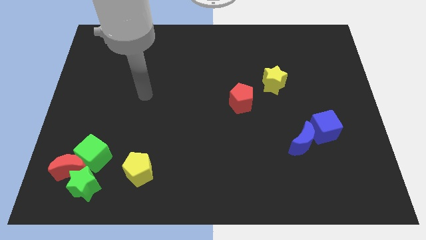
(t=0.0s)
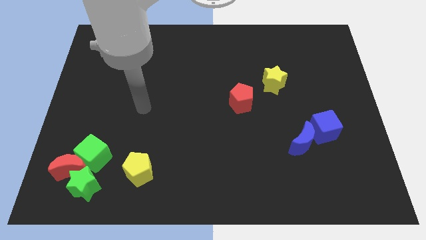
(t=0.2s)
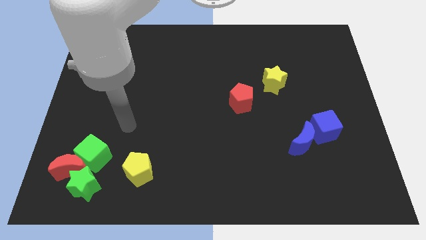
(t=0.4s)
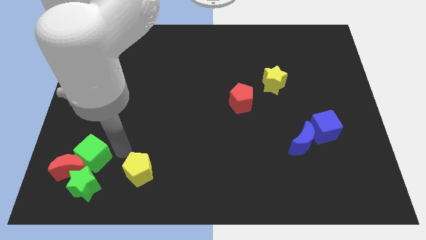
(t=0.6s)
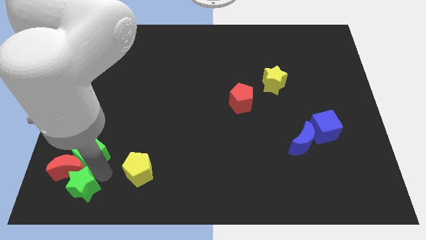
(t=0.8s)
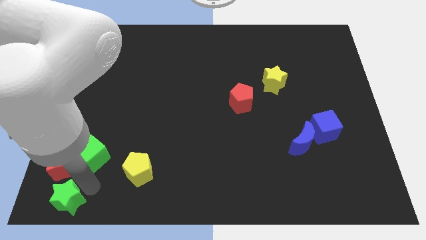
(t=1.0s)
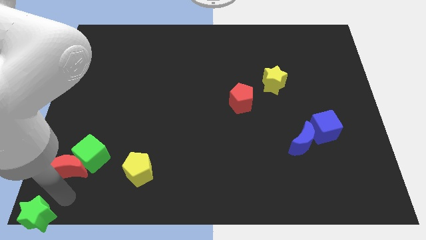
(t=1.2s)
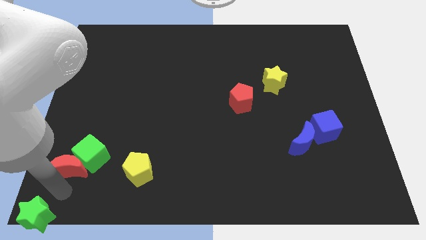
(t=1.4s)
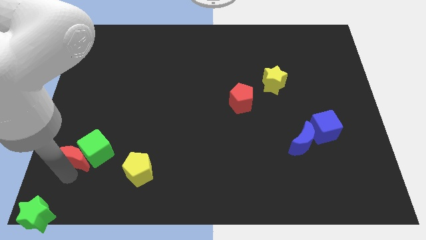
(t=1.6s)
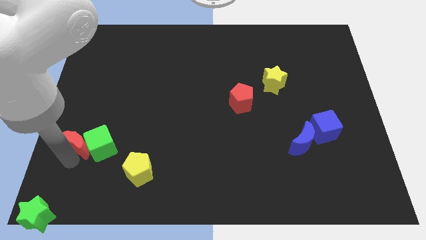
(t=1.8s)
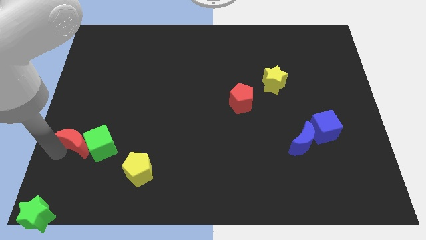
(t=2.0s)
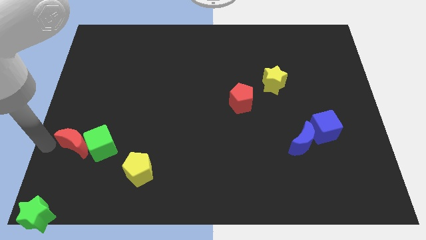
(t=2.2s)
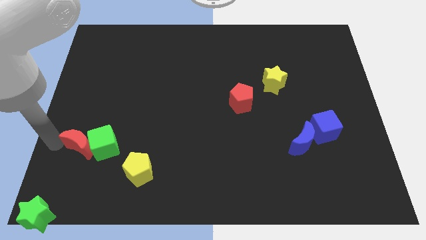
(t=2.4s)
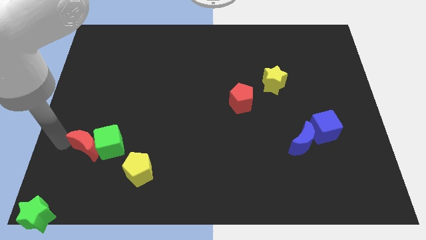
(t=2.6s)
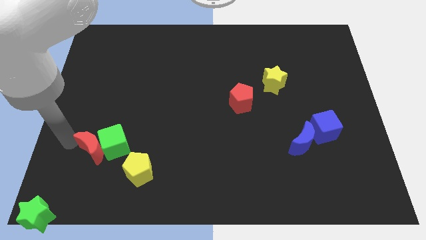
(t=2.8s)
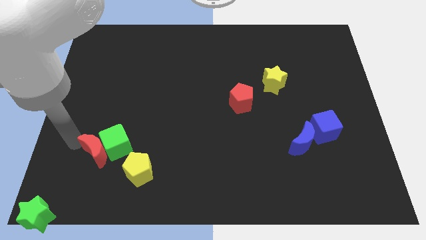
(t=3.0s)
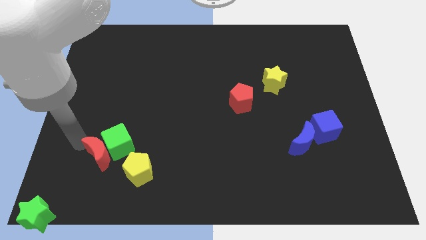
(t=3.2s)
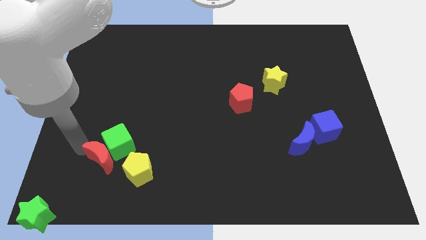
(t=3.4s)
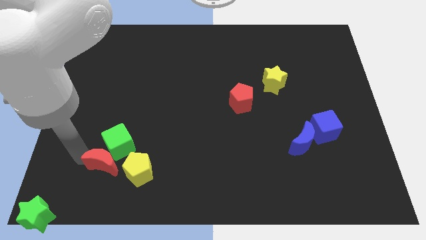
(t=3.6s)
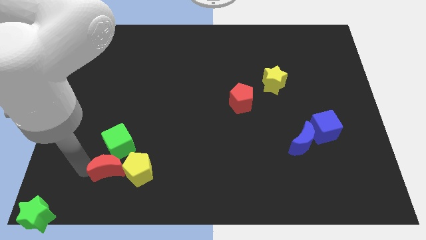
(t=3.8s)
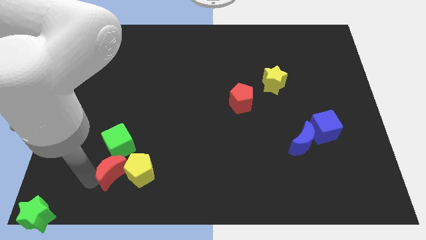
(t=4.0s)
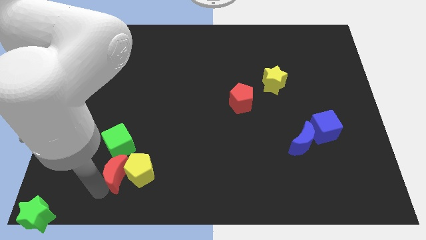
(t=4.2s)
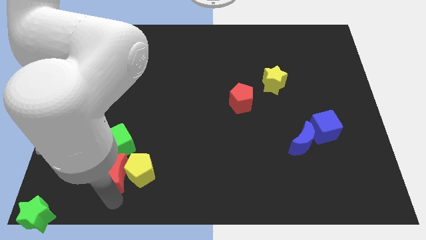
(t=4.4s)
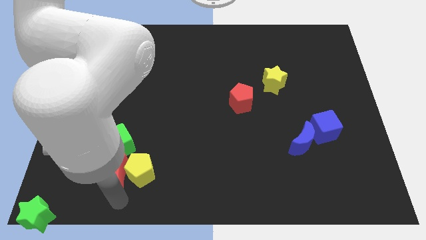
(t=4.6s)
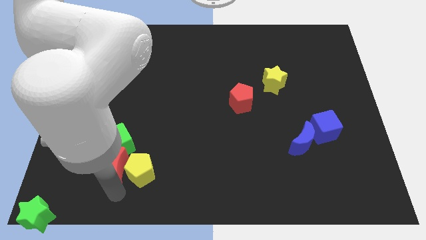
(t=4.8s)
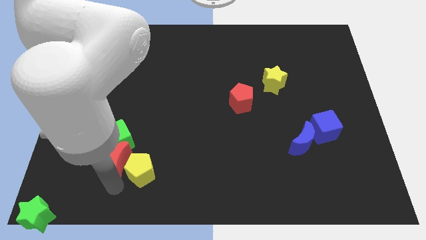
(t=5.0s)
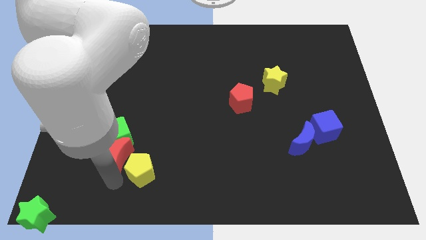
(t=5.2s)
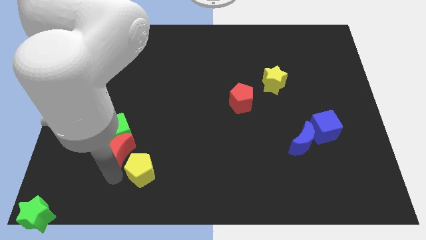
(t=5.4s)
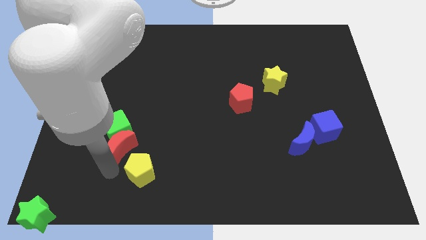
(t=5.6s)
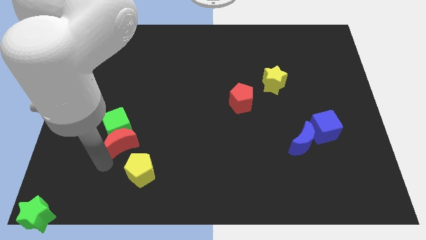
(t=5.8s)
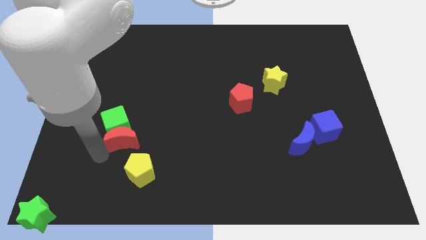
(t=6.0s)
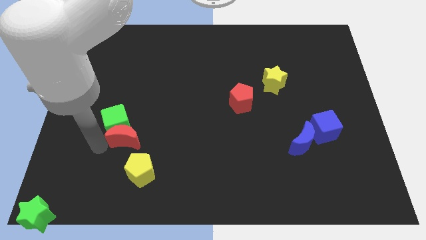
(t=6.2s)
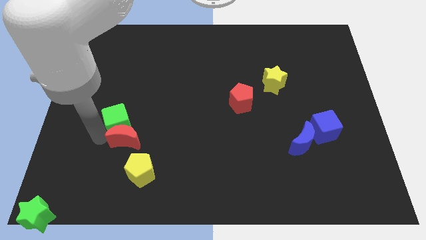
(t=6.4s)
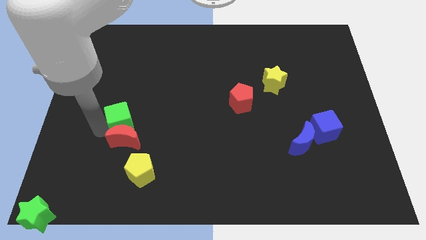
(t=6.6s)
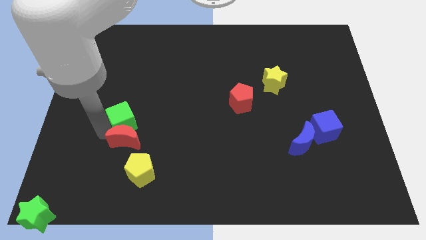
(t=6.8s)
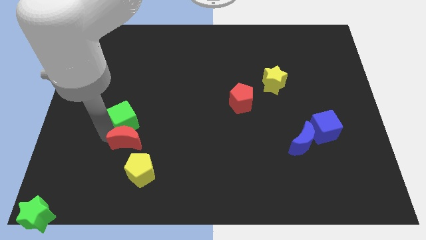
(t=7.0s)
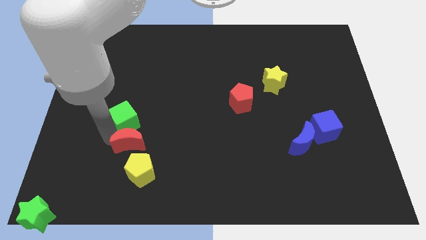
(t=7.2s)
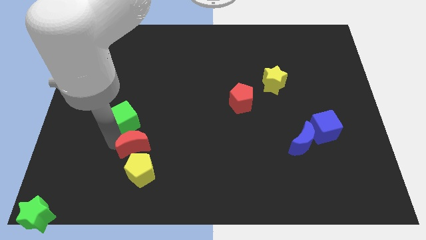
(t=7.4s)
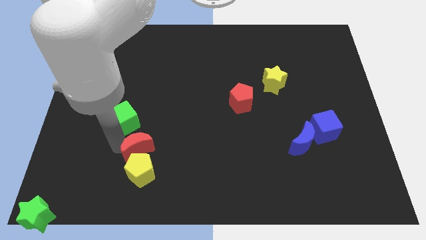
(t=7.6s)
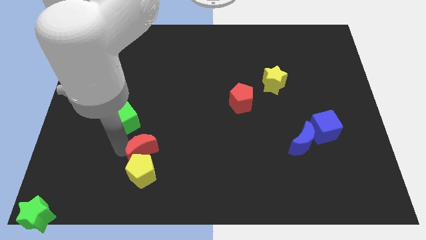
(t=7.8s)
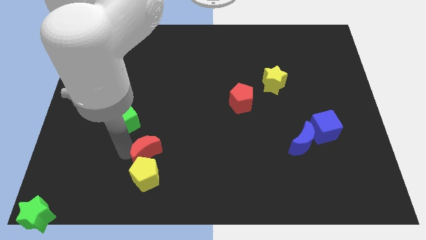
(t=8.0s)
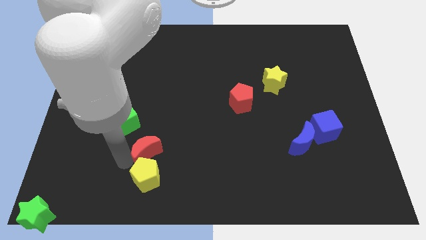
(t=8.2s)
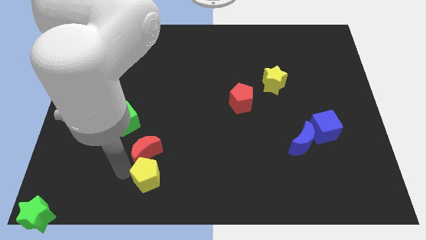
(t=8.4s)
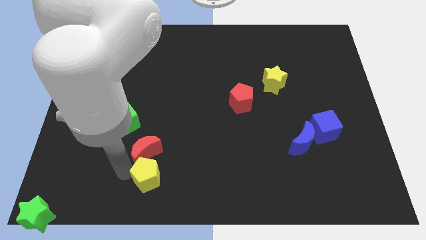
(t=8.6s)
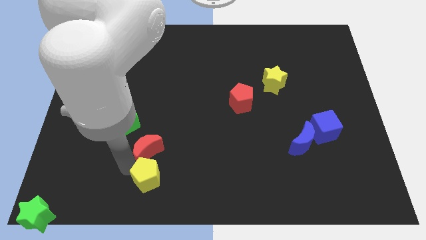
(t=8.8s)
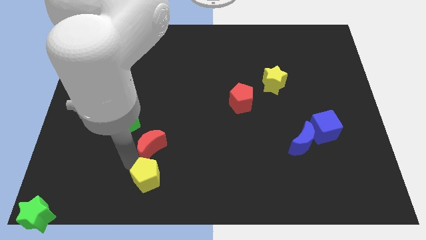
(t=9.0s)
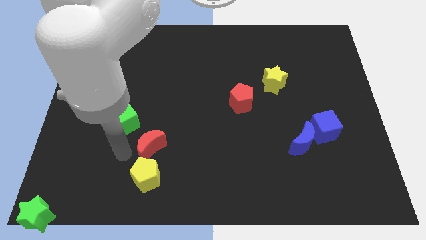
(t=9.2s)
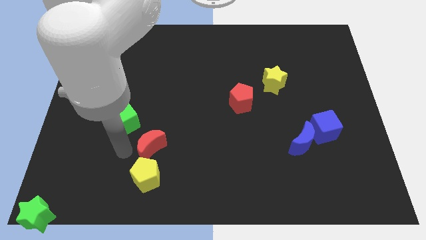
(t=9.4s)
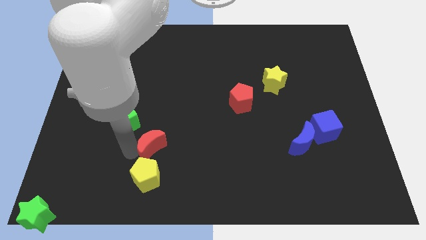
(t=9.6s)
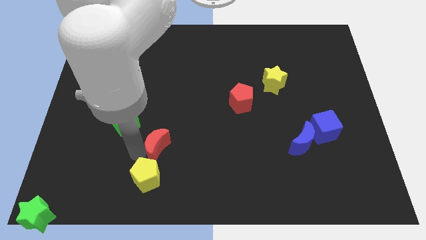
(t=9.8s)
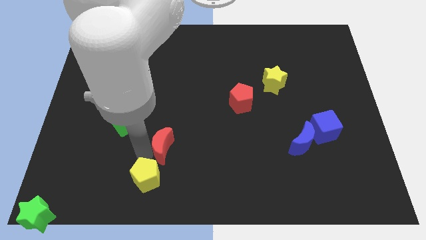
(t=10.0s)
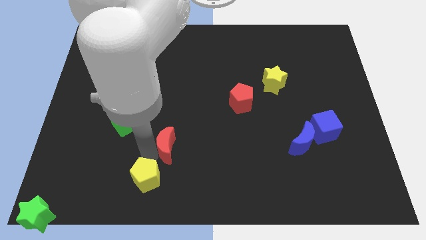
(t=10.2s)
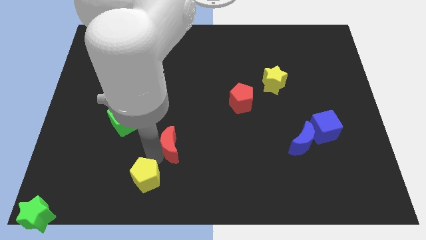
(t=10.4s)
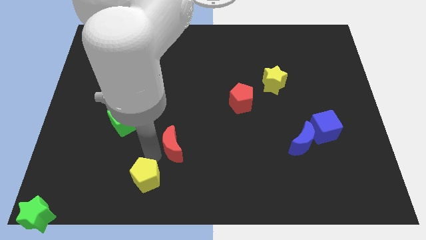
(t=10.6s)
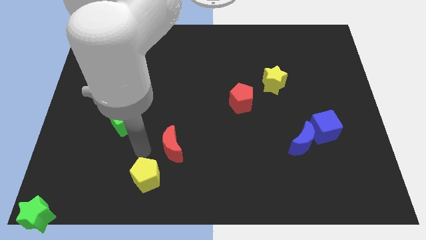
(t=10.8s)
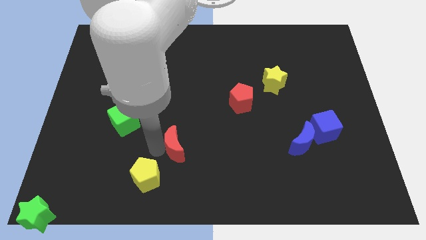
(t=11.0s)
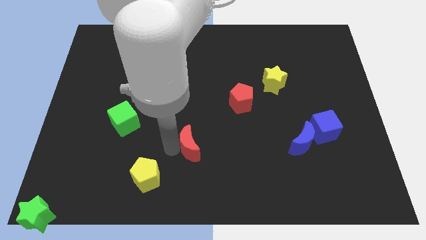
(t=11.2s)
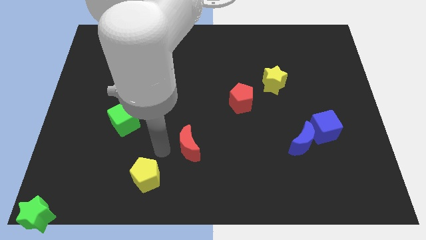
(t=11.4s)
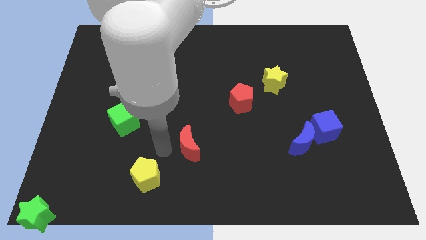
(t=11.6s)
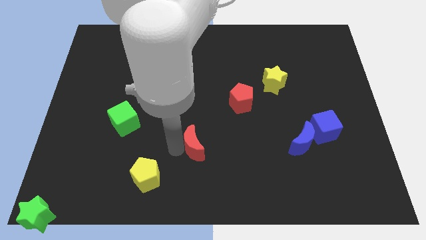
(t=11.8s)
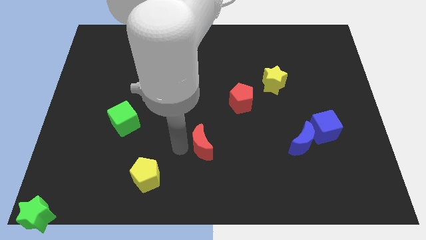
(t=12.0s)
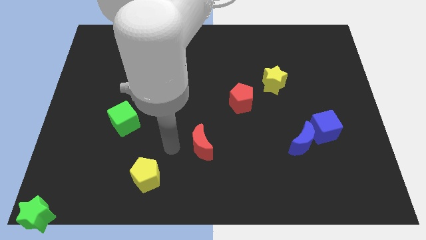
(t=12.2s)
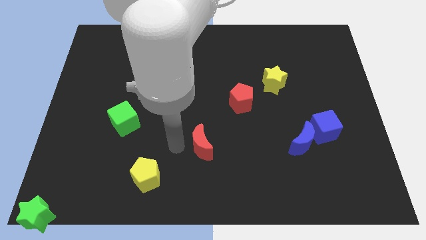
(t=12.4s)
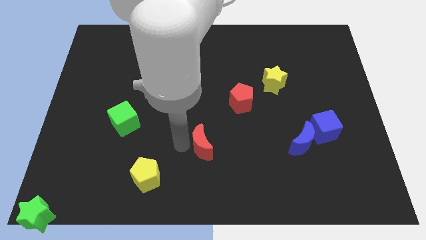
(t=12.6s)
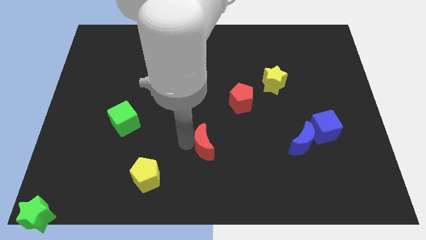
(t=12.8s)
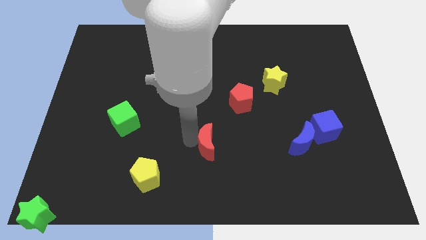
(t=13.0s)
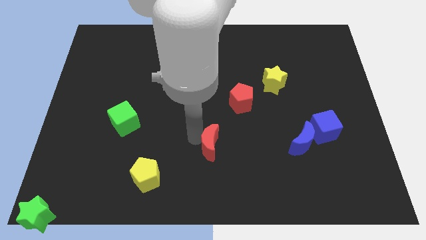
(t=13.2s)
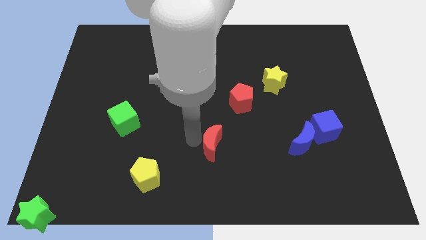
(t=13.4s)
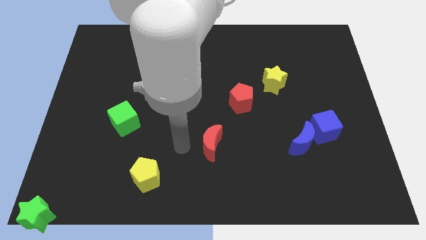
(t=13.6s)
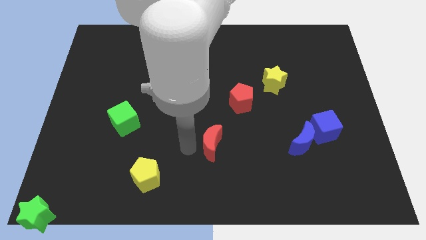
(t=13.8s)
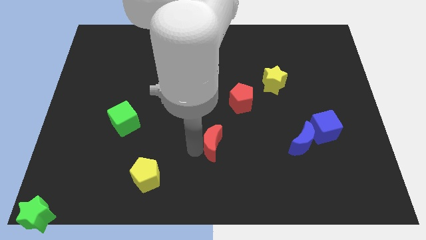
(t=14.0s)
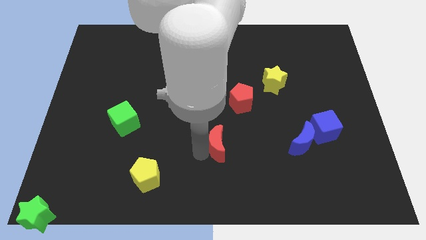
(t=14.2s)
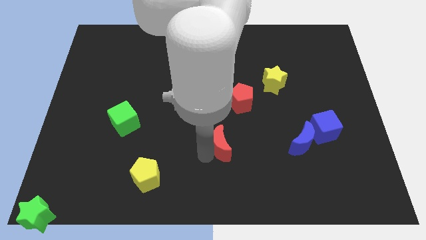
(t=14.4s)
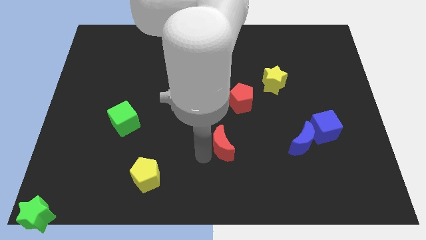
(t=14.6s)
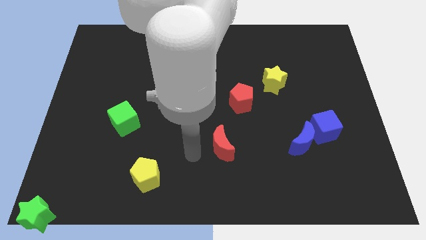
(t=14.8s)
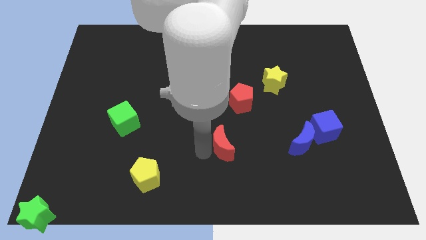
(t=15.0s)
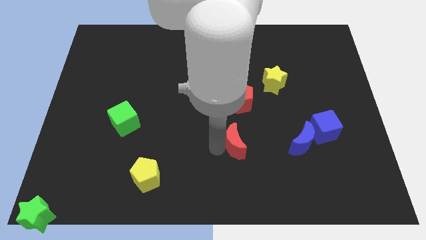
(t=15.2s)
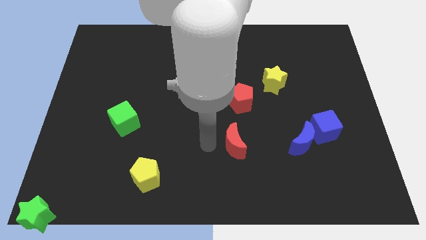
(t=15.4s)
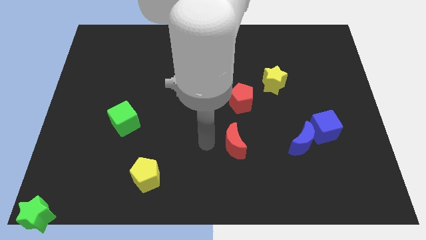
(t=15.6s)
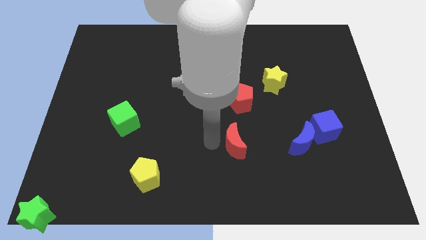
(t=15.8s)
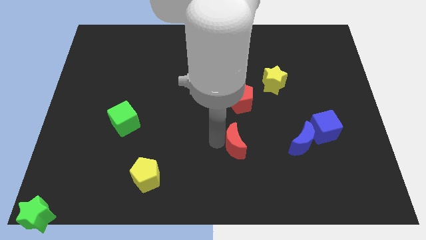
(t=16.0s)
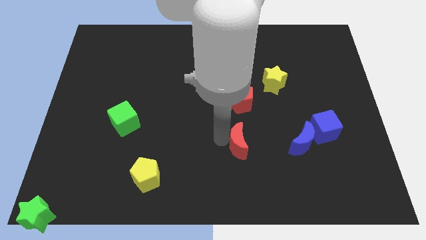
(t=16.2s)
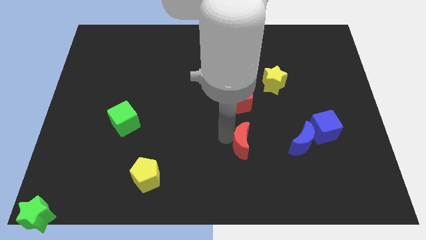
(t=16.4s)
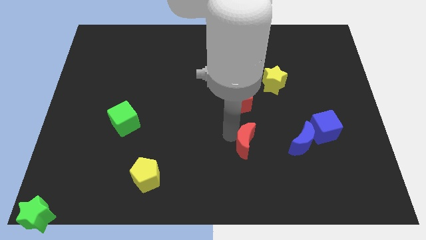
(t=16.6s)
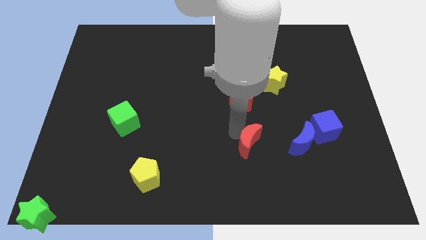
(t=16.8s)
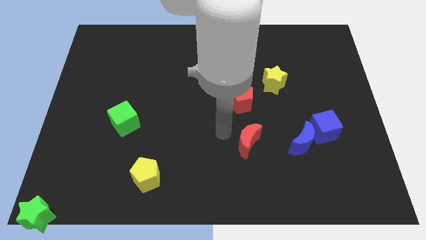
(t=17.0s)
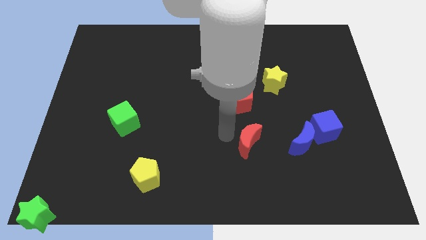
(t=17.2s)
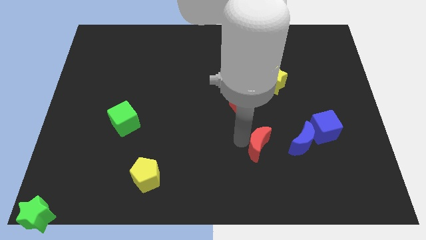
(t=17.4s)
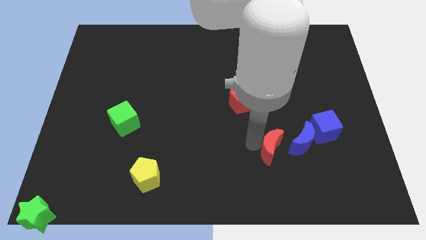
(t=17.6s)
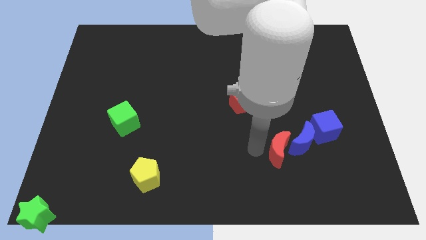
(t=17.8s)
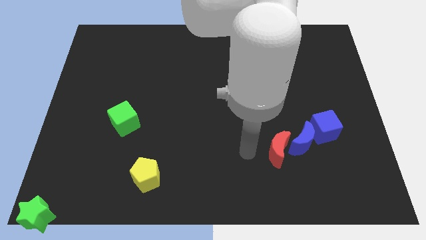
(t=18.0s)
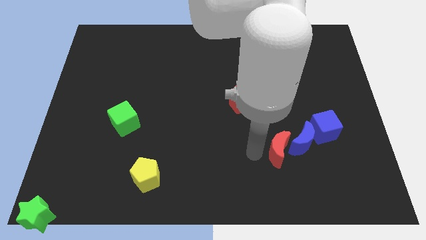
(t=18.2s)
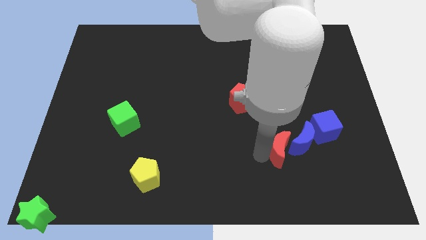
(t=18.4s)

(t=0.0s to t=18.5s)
put the red moon diagonally down and to the left of the blue cube
